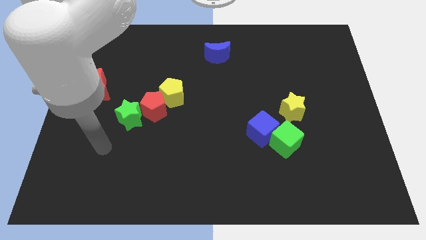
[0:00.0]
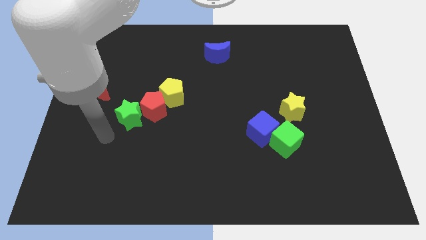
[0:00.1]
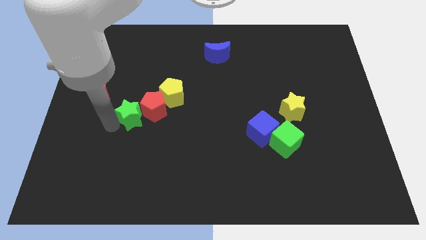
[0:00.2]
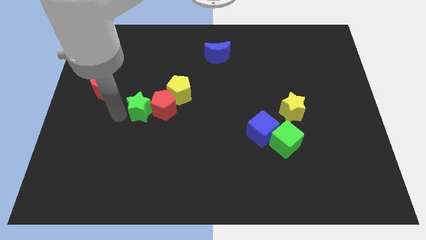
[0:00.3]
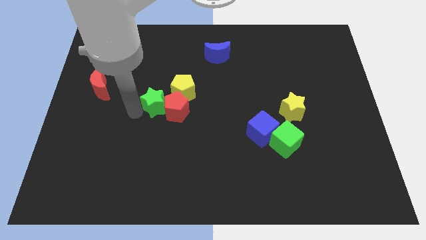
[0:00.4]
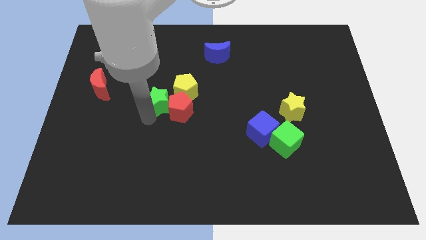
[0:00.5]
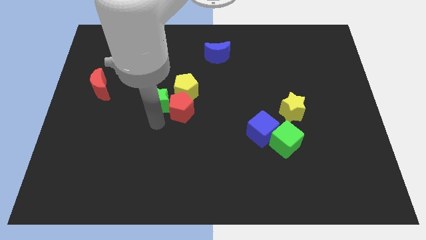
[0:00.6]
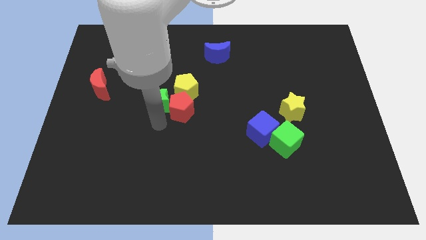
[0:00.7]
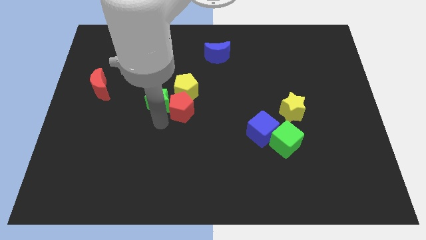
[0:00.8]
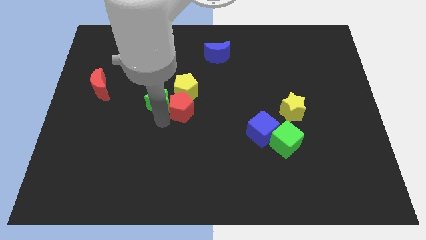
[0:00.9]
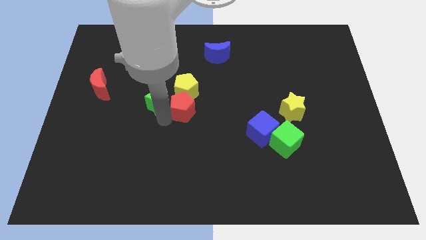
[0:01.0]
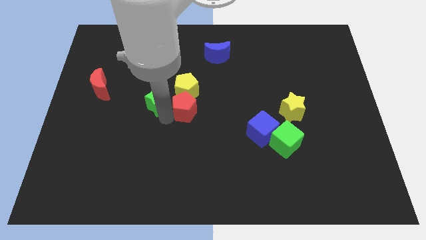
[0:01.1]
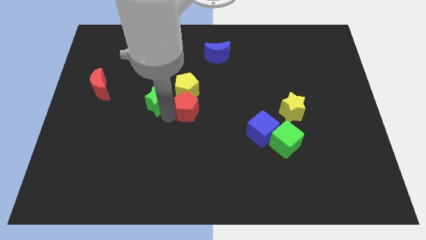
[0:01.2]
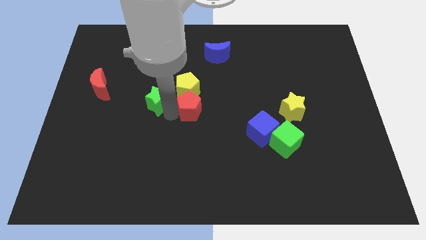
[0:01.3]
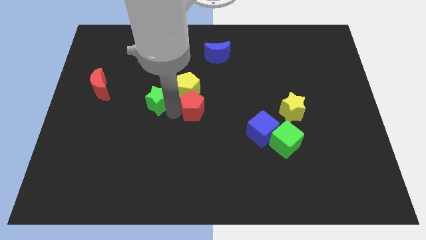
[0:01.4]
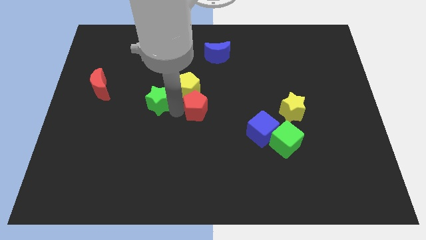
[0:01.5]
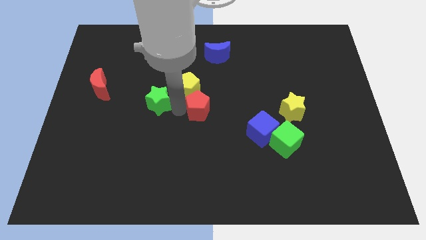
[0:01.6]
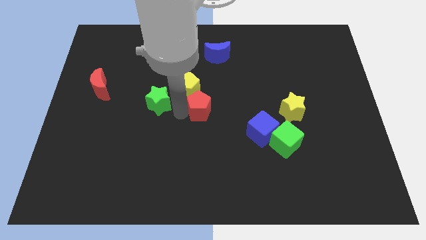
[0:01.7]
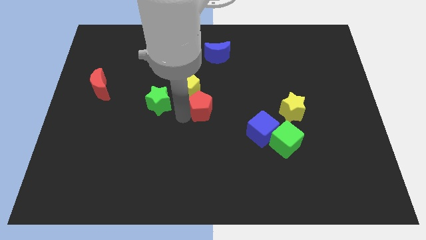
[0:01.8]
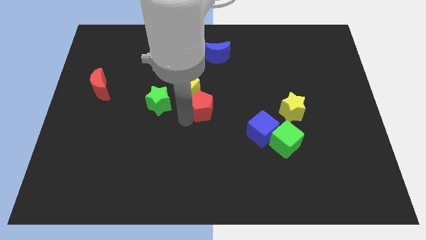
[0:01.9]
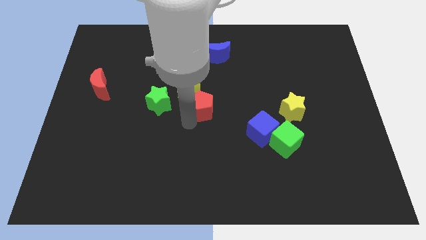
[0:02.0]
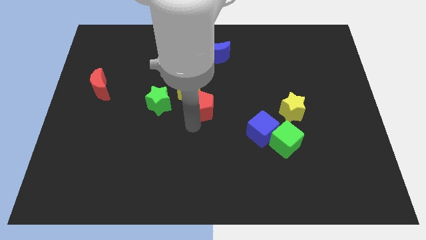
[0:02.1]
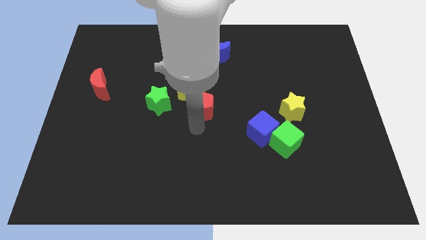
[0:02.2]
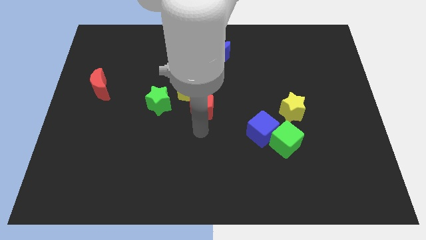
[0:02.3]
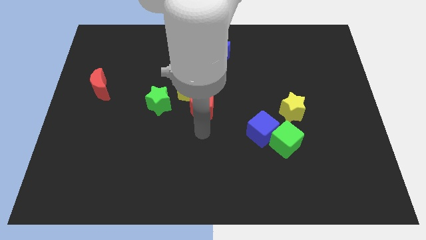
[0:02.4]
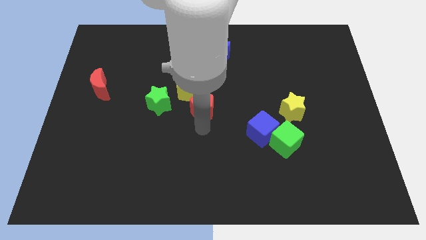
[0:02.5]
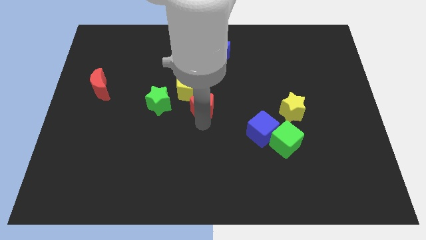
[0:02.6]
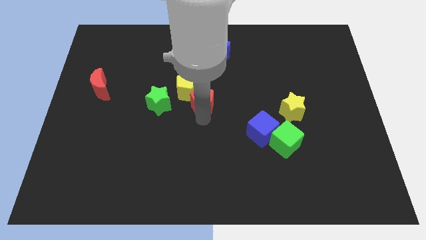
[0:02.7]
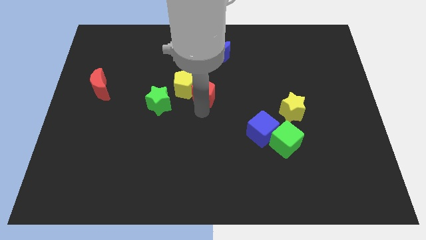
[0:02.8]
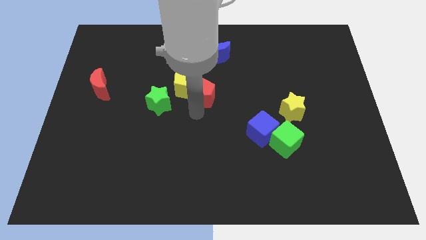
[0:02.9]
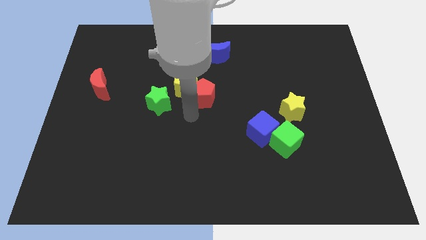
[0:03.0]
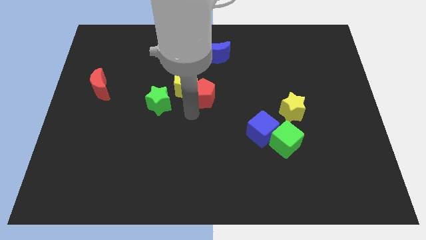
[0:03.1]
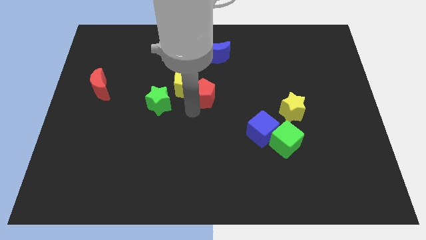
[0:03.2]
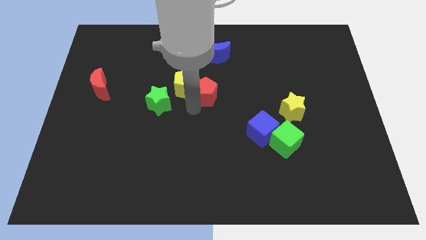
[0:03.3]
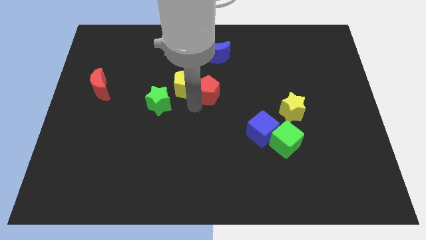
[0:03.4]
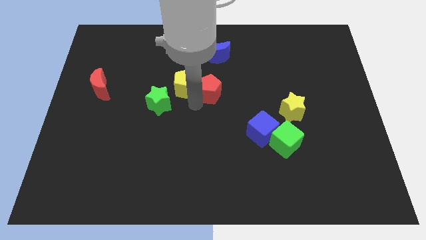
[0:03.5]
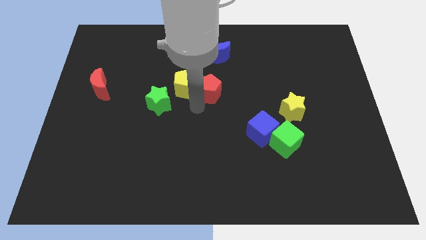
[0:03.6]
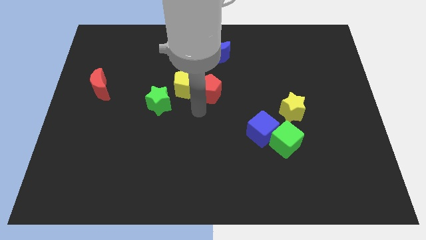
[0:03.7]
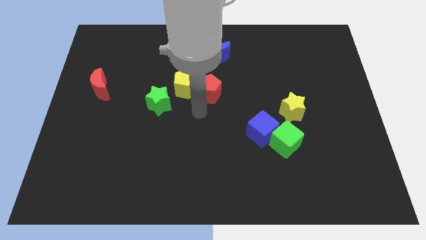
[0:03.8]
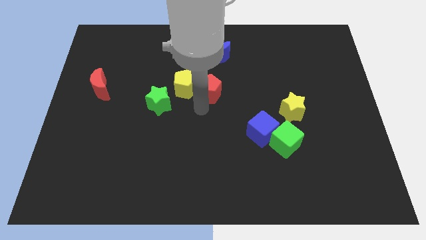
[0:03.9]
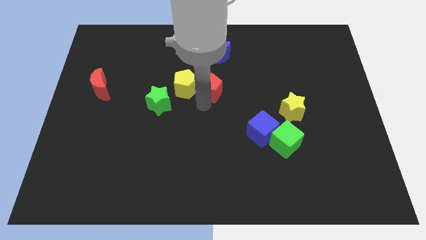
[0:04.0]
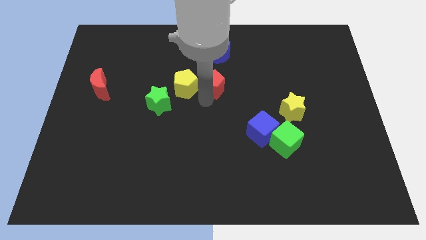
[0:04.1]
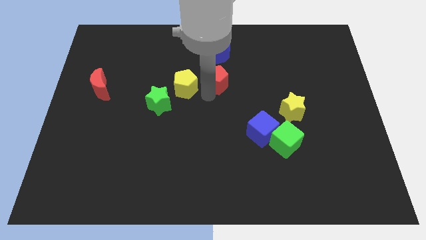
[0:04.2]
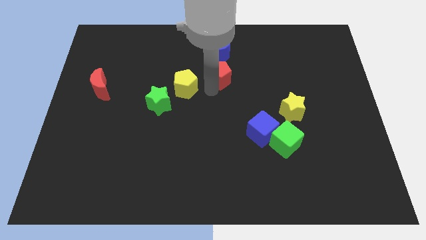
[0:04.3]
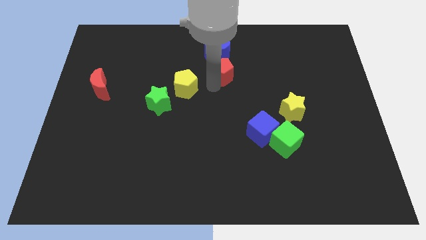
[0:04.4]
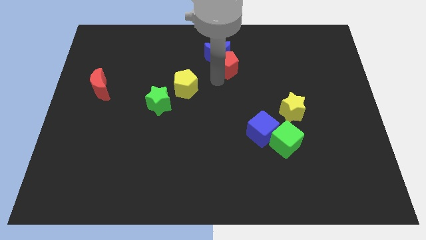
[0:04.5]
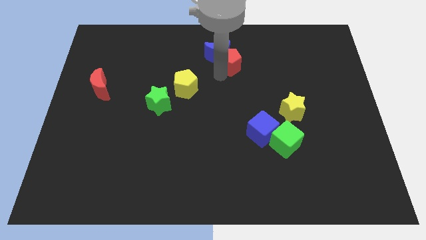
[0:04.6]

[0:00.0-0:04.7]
move the red pentagon right of the blue moon

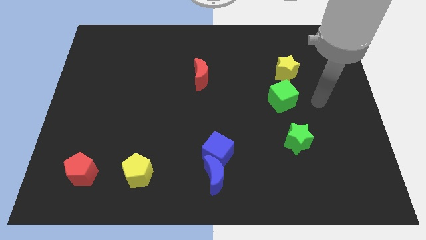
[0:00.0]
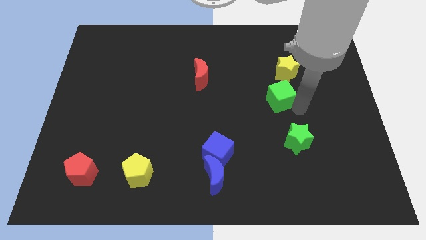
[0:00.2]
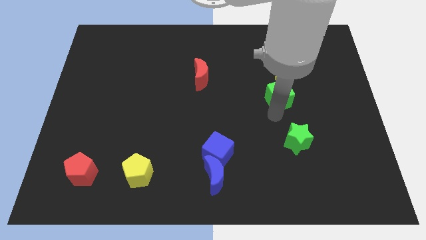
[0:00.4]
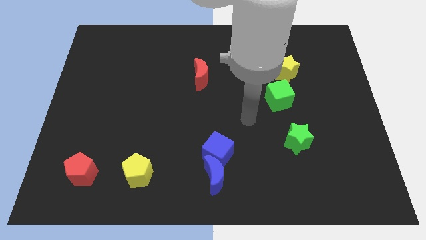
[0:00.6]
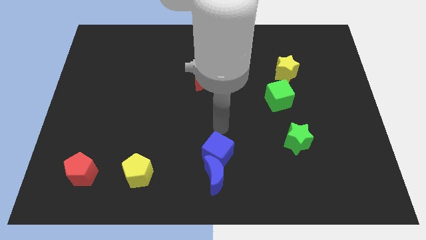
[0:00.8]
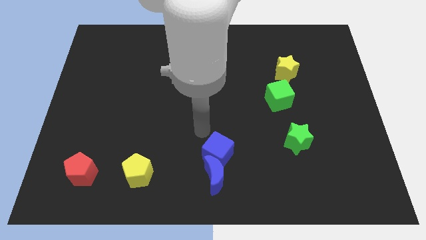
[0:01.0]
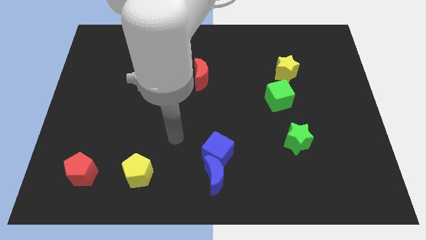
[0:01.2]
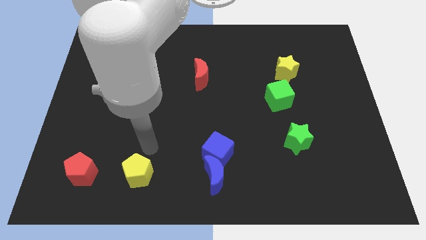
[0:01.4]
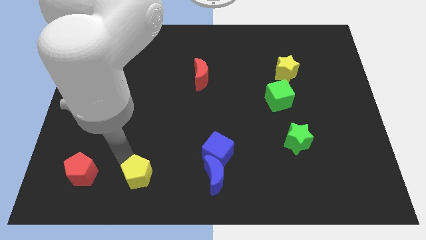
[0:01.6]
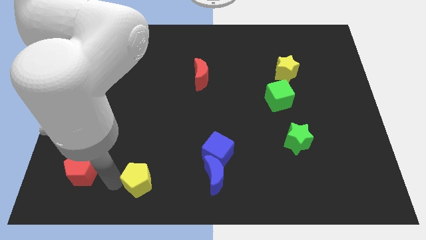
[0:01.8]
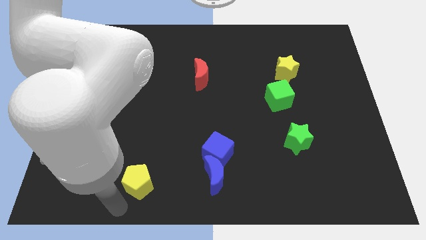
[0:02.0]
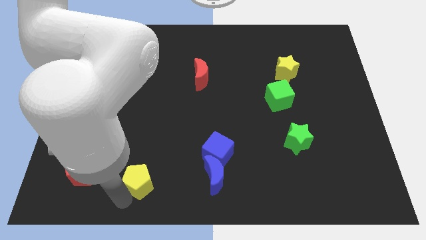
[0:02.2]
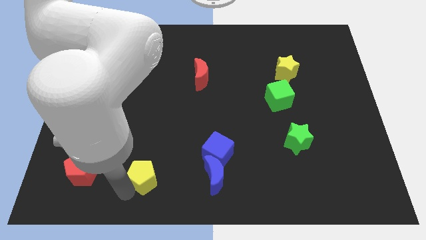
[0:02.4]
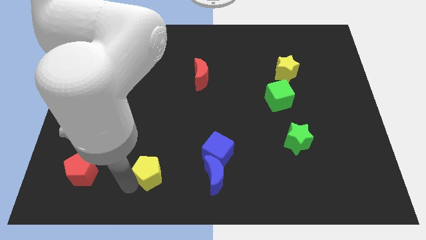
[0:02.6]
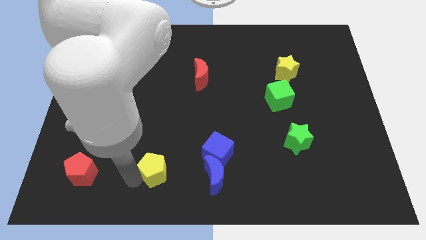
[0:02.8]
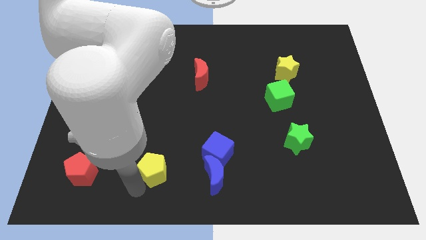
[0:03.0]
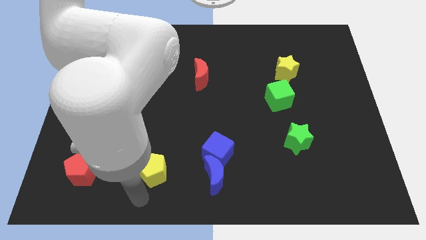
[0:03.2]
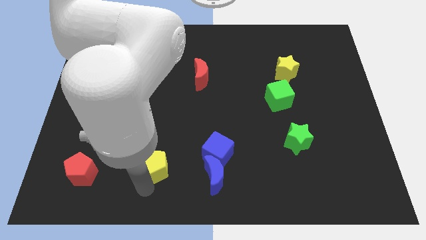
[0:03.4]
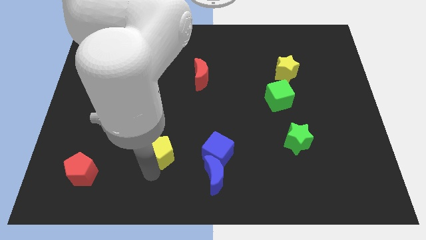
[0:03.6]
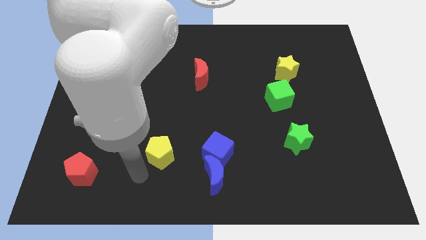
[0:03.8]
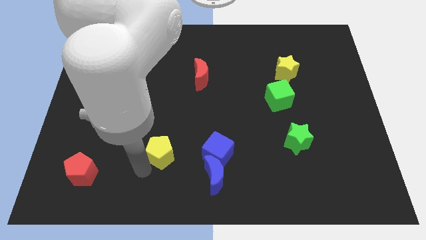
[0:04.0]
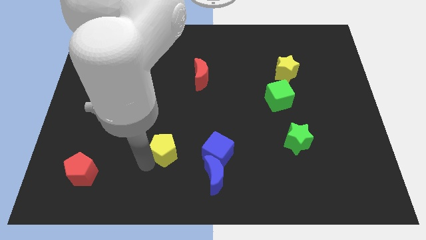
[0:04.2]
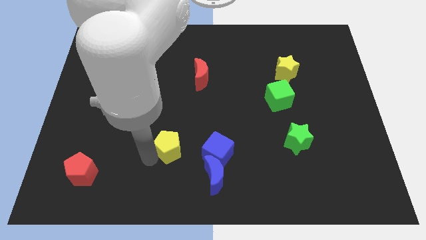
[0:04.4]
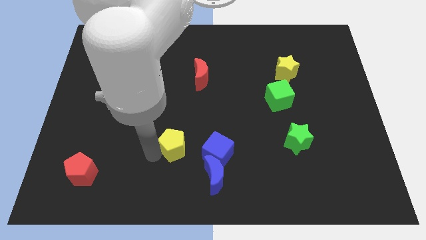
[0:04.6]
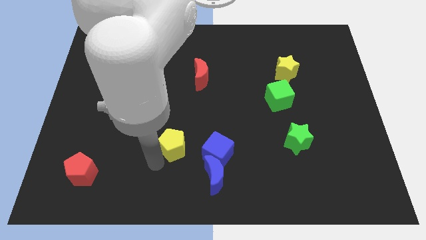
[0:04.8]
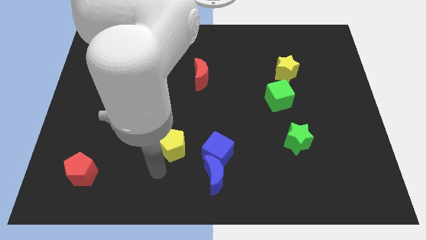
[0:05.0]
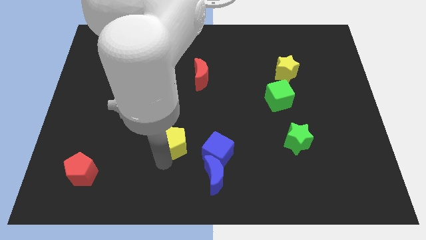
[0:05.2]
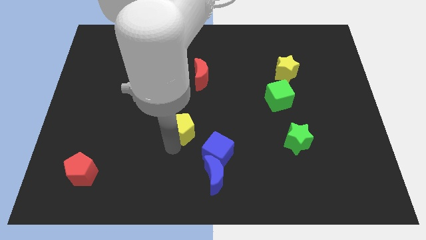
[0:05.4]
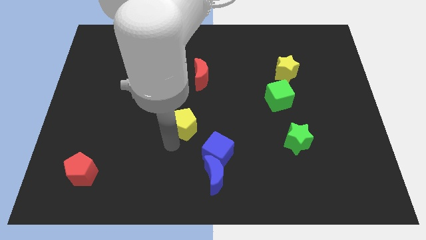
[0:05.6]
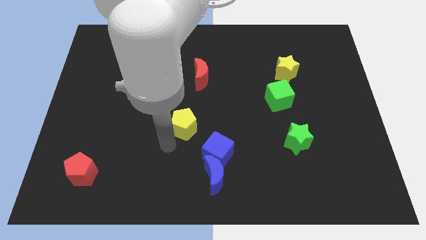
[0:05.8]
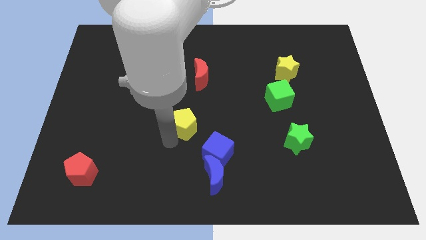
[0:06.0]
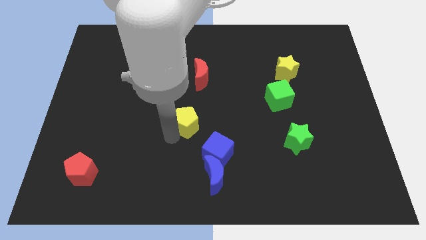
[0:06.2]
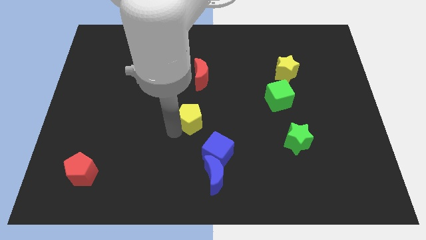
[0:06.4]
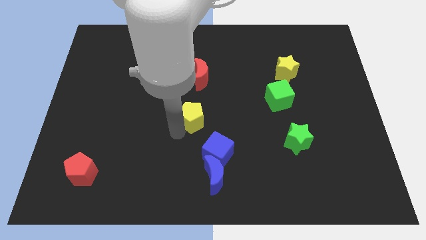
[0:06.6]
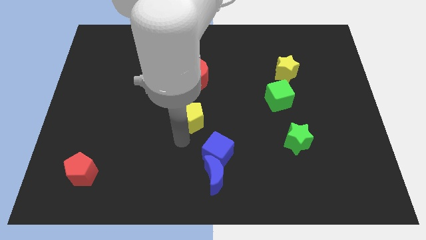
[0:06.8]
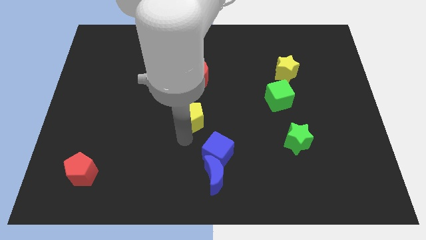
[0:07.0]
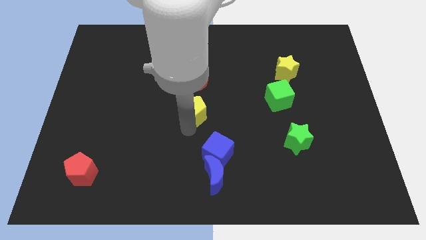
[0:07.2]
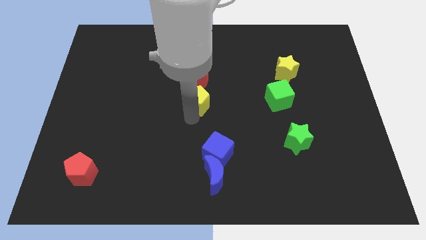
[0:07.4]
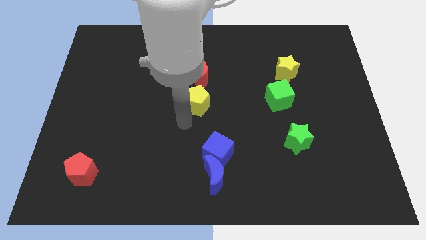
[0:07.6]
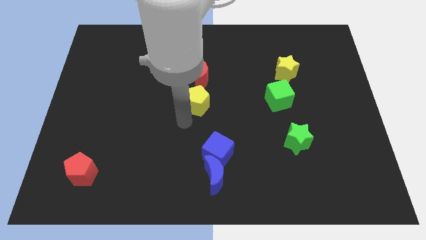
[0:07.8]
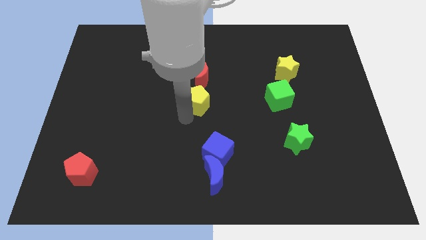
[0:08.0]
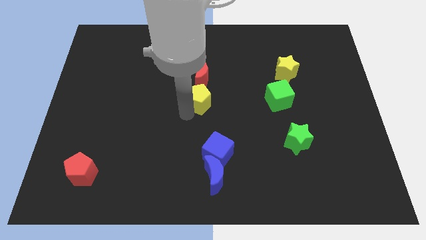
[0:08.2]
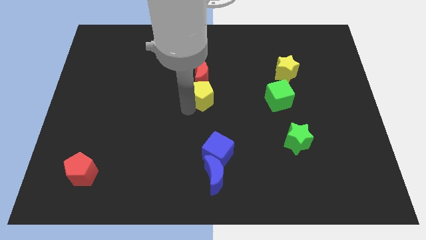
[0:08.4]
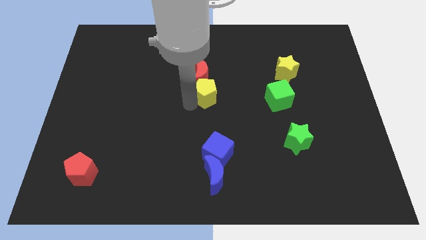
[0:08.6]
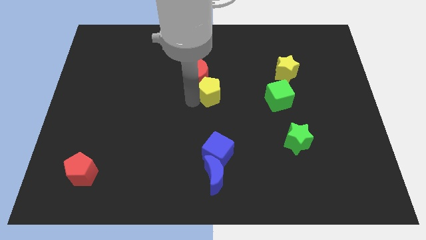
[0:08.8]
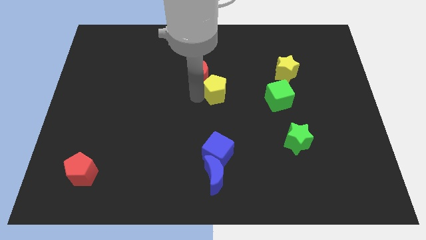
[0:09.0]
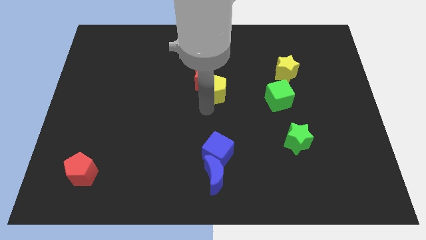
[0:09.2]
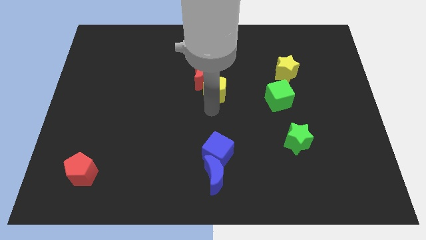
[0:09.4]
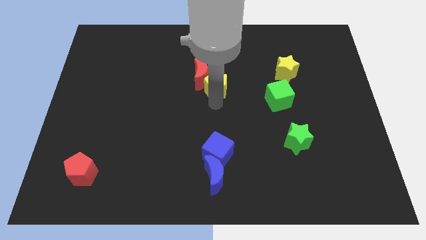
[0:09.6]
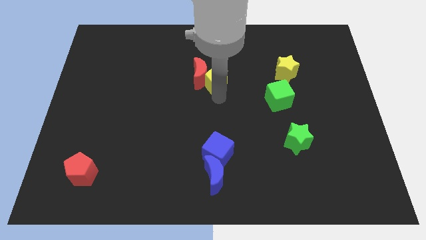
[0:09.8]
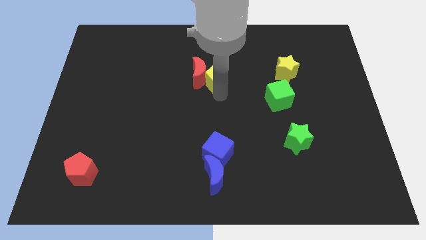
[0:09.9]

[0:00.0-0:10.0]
push the yellow pentagon diagonally up and to the right of the red moon
